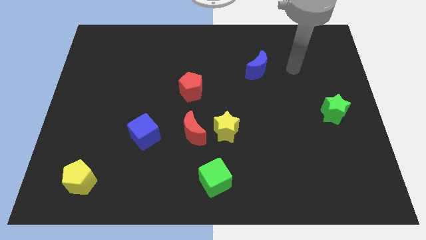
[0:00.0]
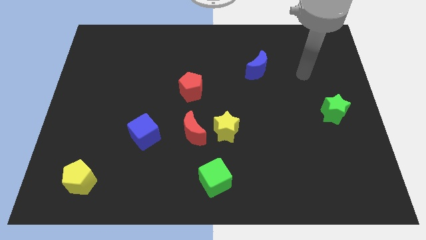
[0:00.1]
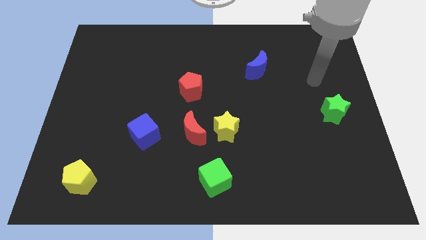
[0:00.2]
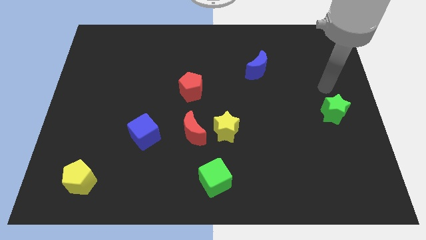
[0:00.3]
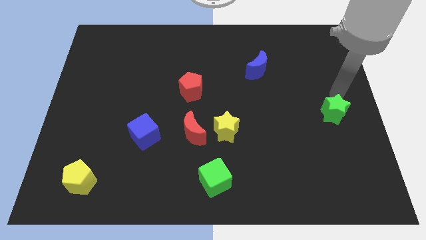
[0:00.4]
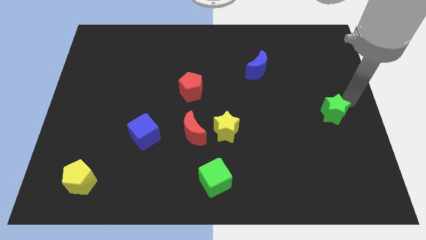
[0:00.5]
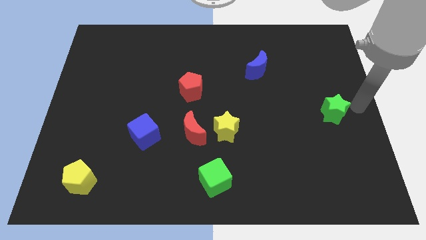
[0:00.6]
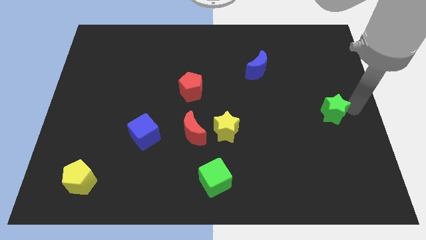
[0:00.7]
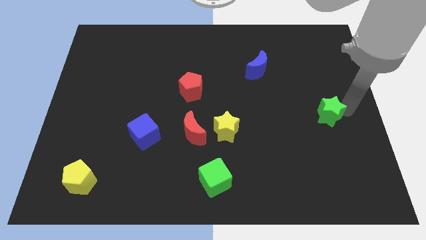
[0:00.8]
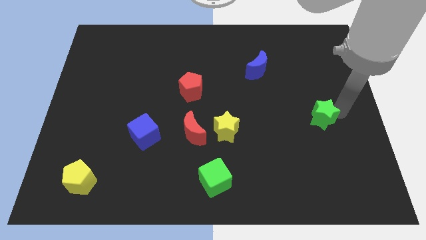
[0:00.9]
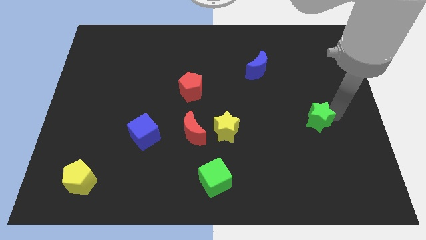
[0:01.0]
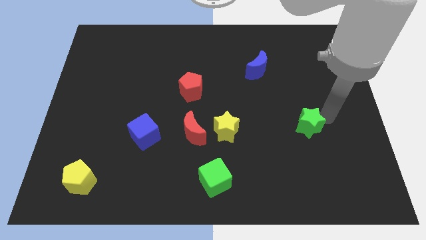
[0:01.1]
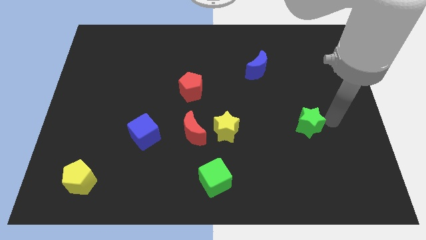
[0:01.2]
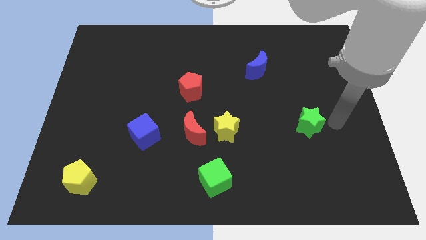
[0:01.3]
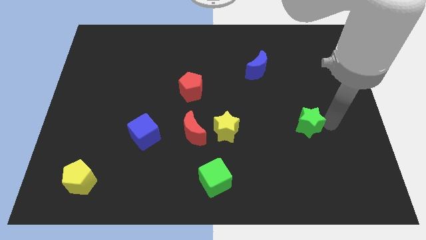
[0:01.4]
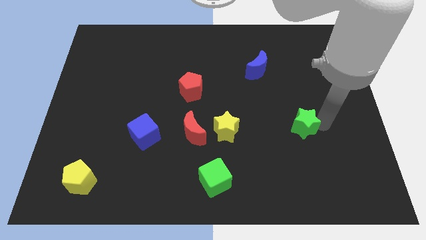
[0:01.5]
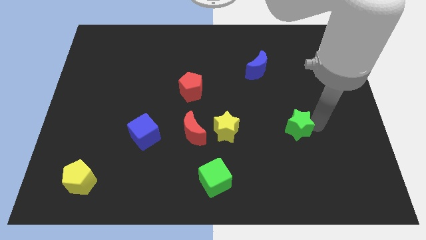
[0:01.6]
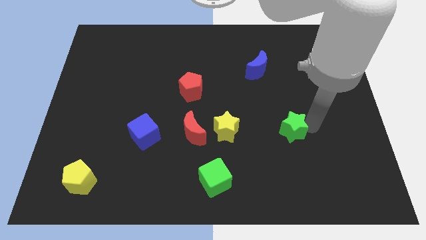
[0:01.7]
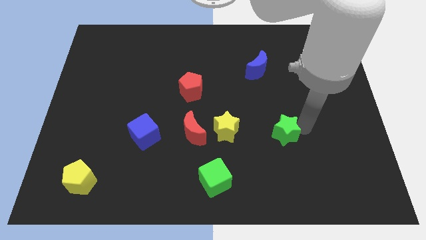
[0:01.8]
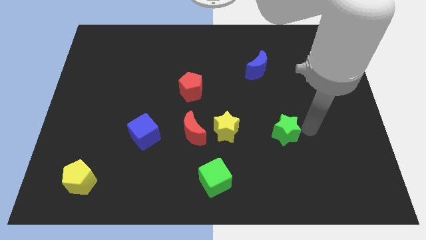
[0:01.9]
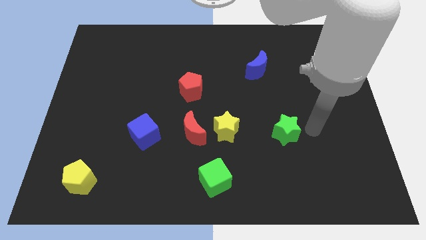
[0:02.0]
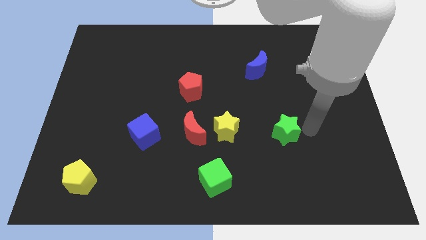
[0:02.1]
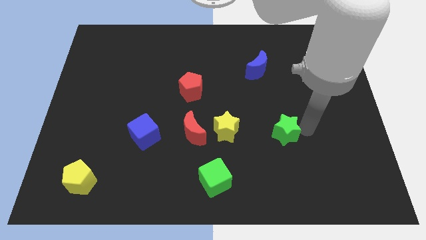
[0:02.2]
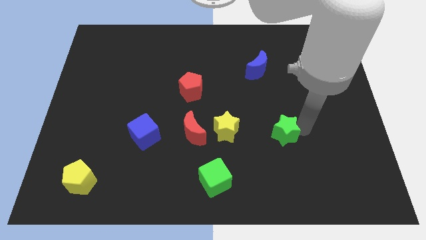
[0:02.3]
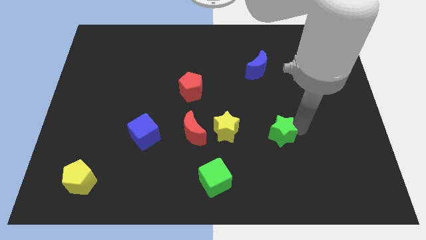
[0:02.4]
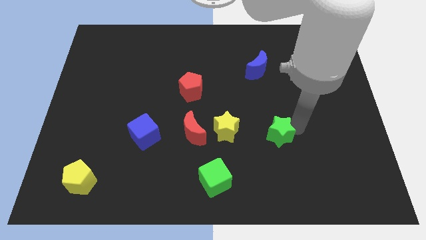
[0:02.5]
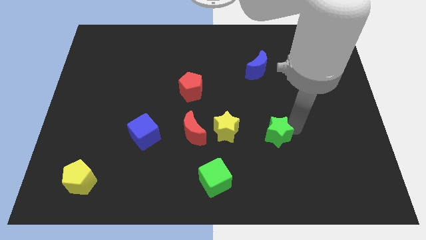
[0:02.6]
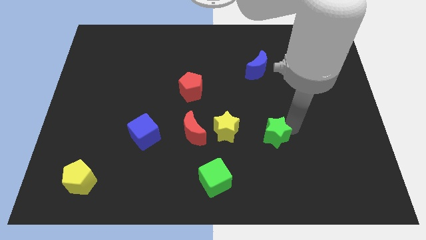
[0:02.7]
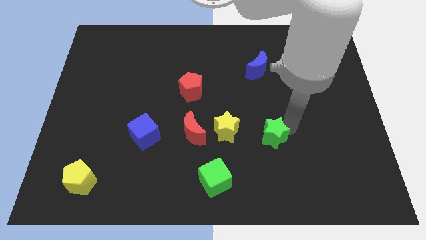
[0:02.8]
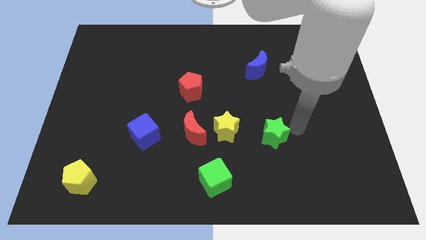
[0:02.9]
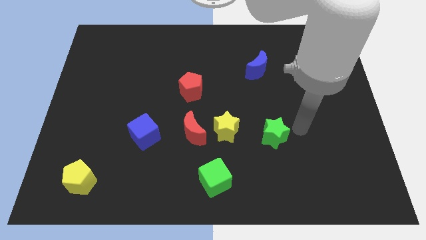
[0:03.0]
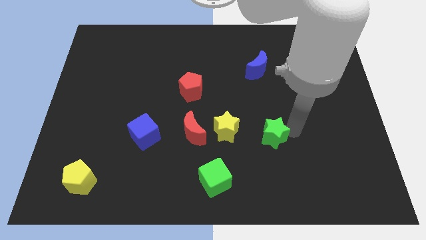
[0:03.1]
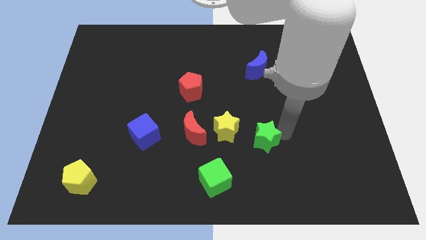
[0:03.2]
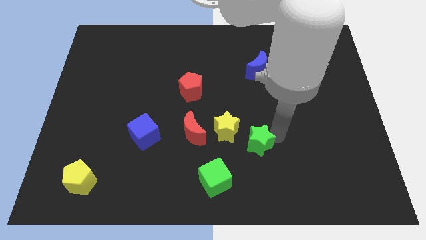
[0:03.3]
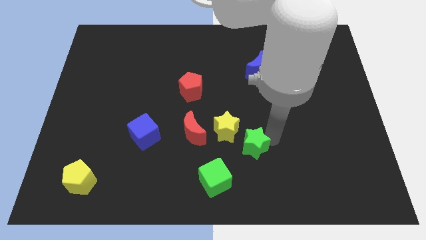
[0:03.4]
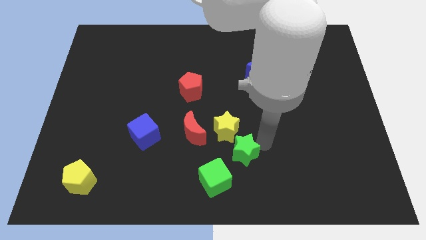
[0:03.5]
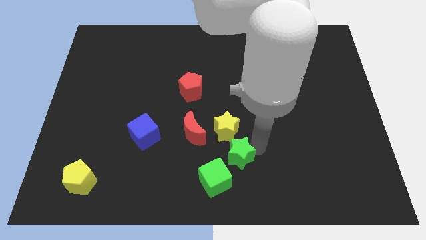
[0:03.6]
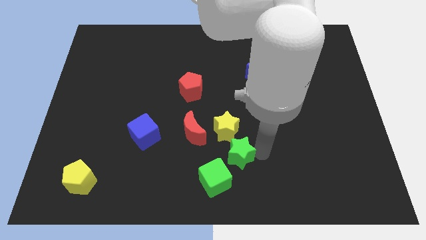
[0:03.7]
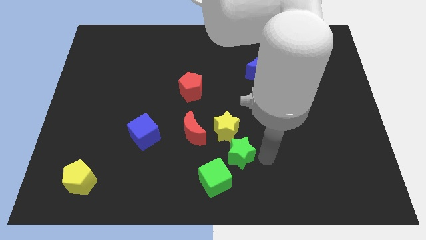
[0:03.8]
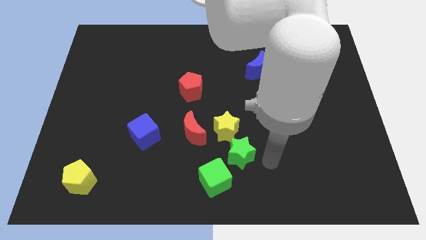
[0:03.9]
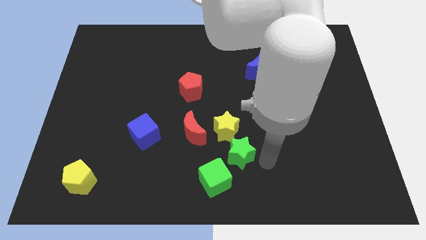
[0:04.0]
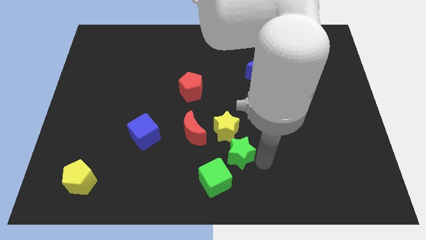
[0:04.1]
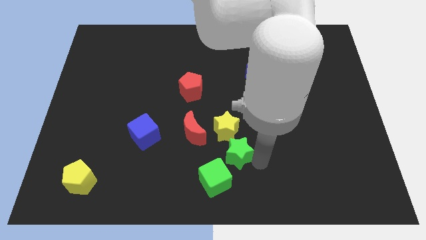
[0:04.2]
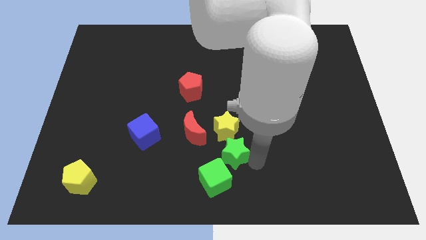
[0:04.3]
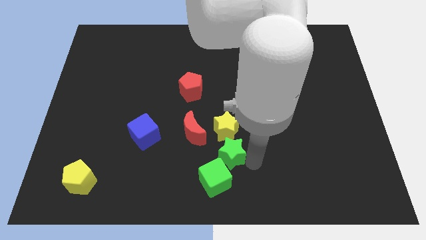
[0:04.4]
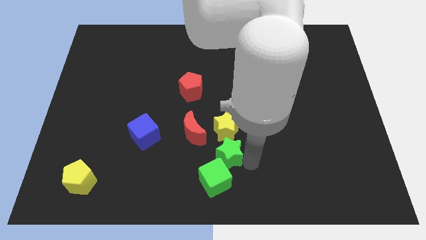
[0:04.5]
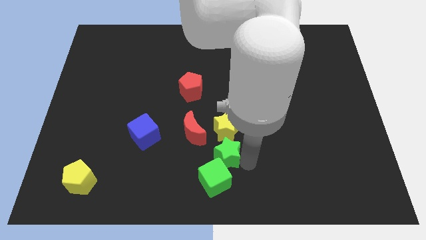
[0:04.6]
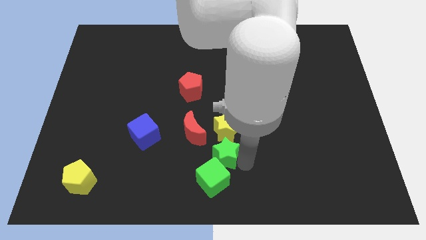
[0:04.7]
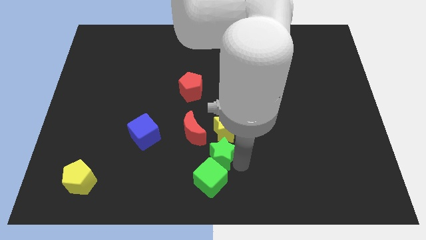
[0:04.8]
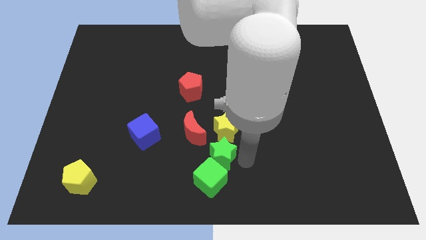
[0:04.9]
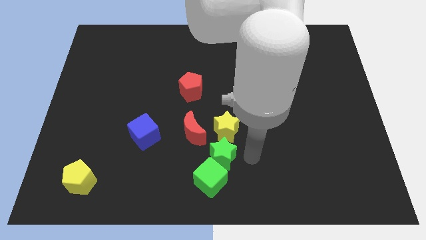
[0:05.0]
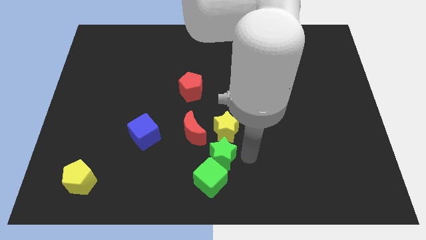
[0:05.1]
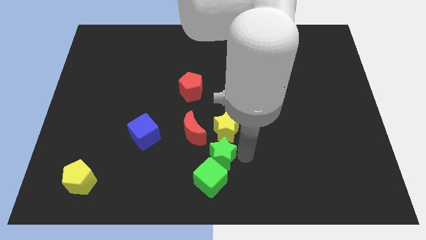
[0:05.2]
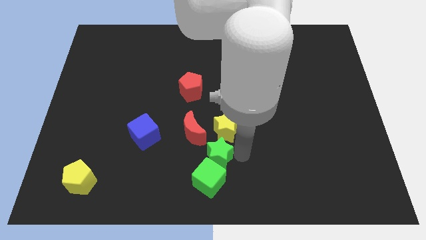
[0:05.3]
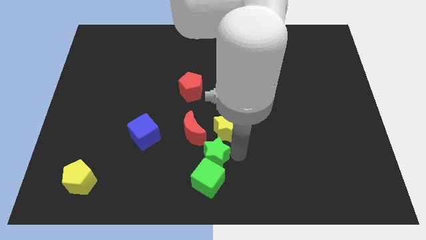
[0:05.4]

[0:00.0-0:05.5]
push the green star to the top left of the green cube

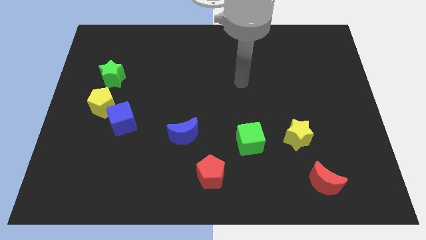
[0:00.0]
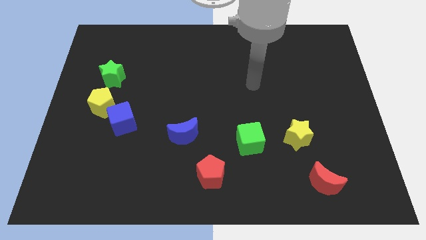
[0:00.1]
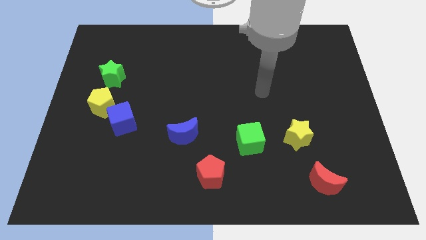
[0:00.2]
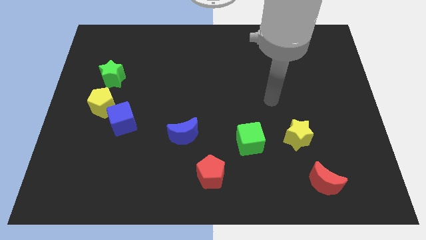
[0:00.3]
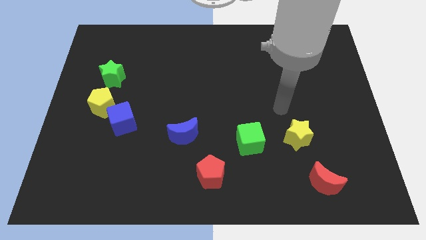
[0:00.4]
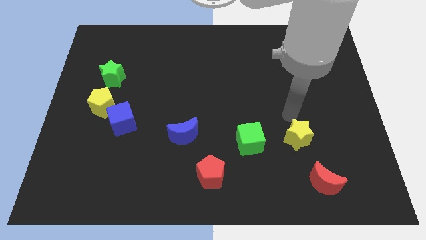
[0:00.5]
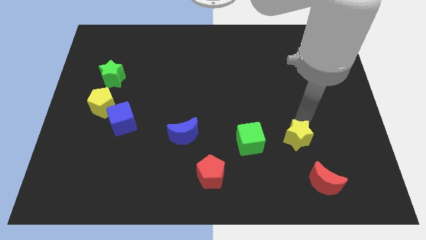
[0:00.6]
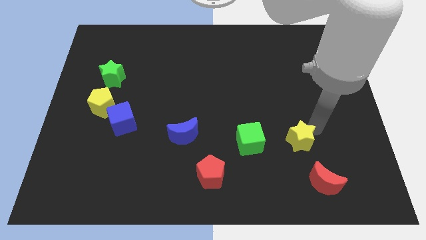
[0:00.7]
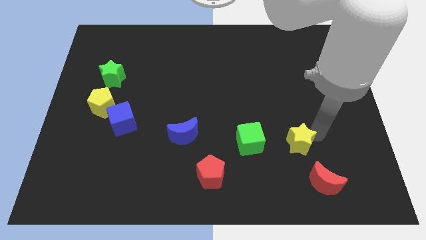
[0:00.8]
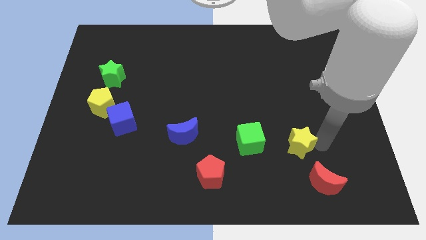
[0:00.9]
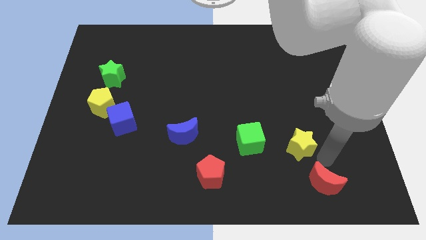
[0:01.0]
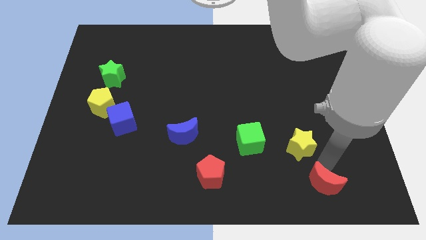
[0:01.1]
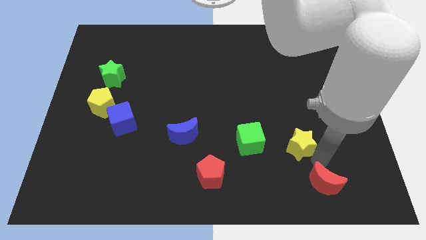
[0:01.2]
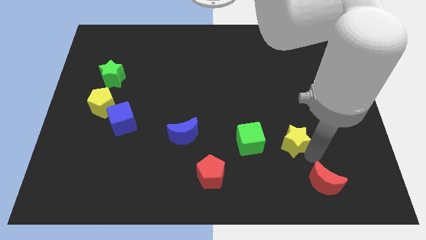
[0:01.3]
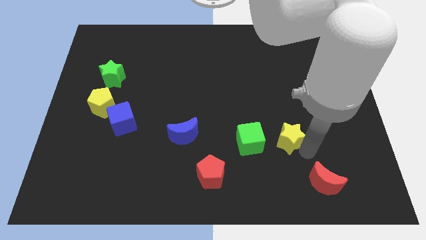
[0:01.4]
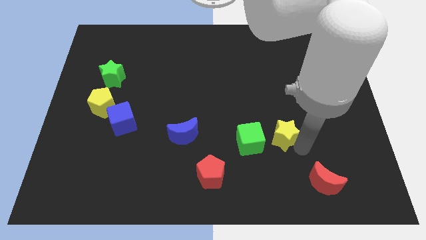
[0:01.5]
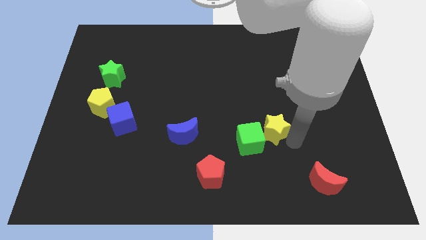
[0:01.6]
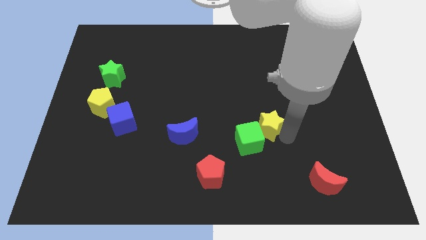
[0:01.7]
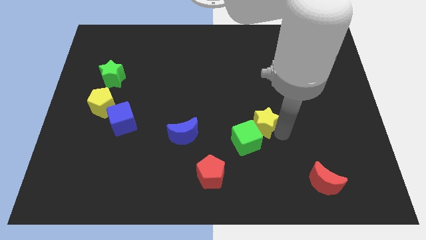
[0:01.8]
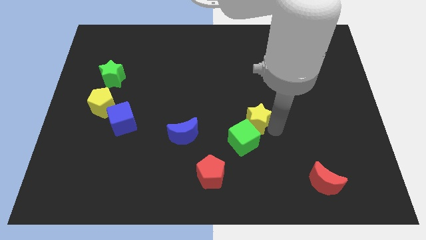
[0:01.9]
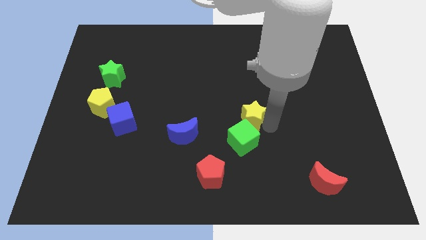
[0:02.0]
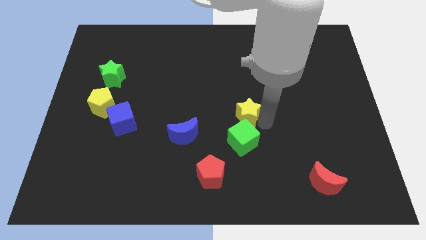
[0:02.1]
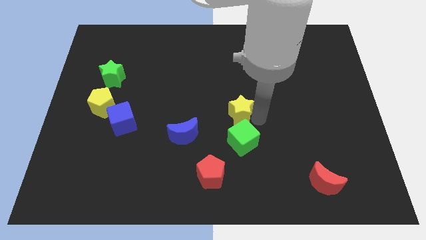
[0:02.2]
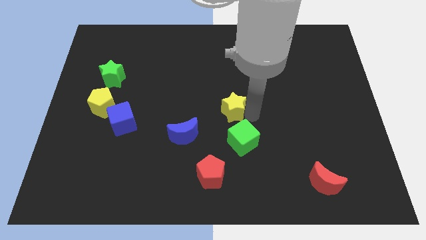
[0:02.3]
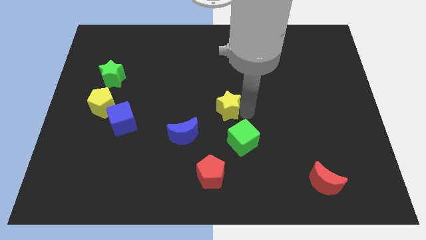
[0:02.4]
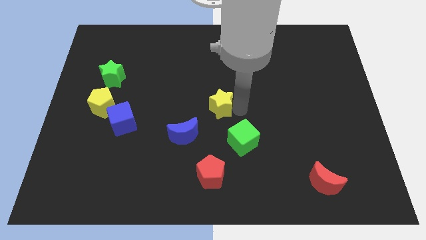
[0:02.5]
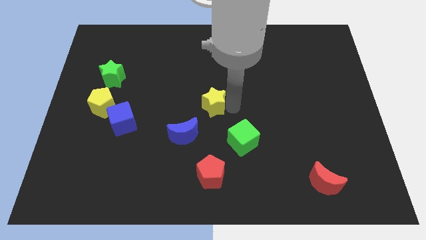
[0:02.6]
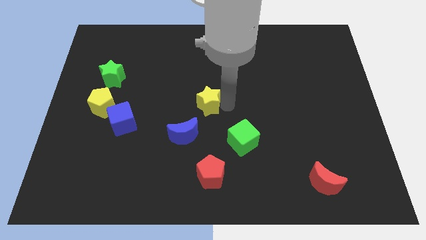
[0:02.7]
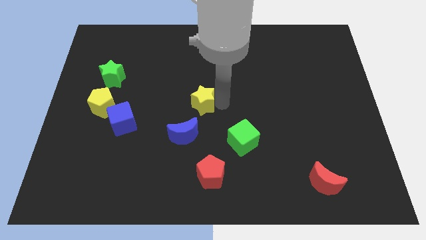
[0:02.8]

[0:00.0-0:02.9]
move the yellow star above the blue moon

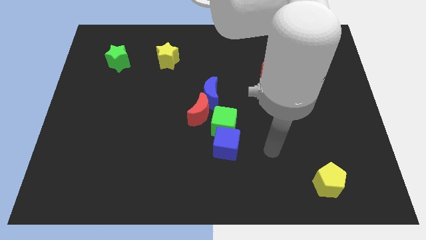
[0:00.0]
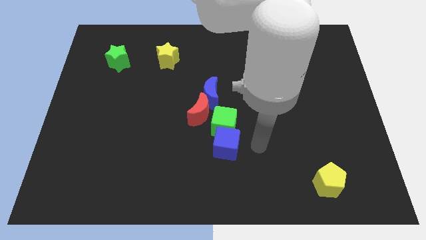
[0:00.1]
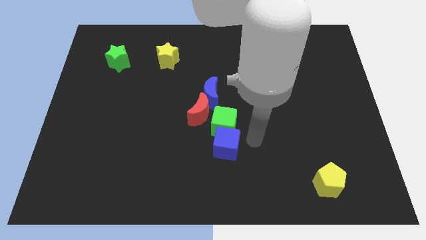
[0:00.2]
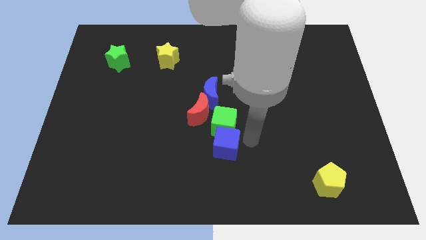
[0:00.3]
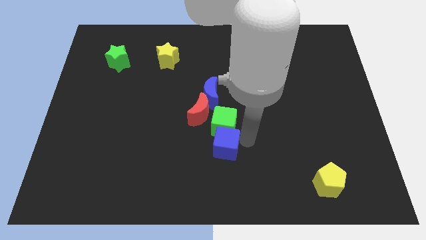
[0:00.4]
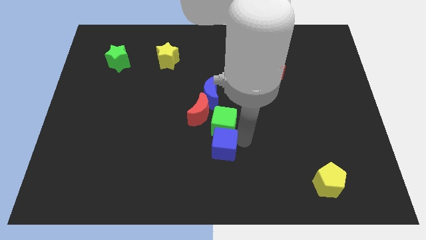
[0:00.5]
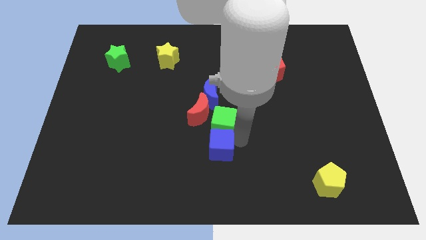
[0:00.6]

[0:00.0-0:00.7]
push the blue cube below the red moon
